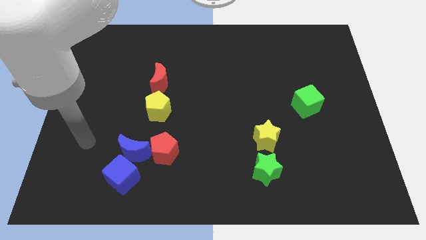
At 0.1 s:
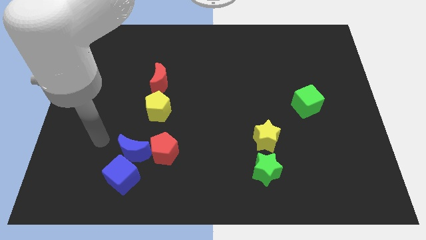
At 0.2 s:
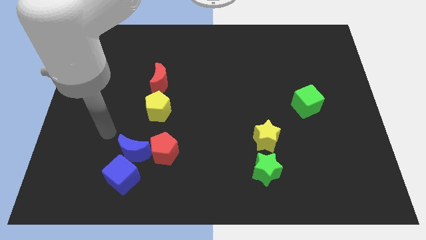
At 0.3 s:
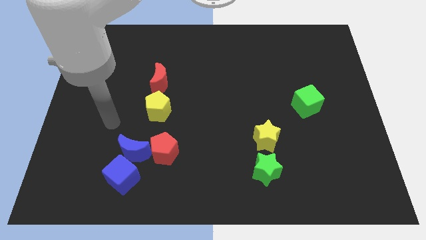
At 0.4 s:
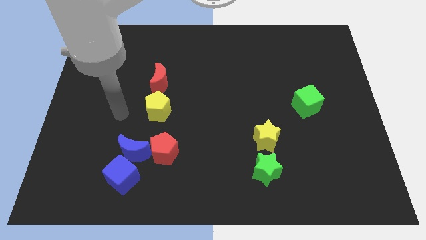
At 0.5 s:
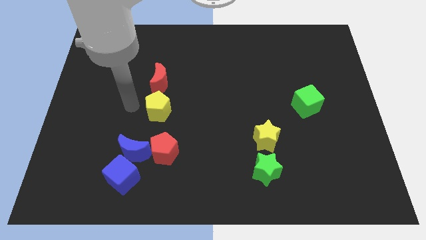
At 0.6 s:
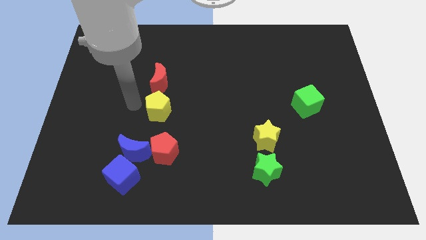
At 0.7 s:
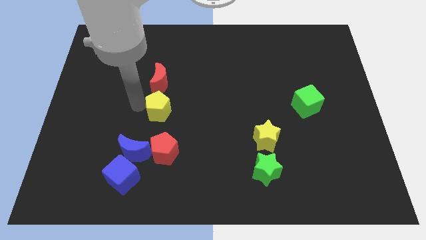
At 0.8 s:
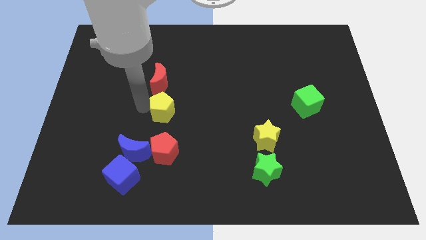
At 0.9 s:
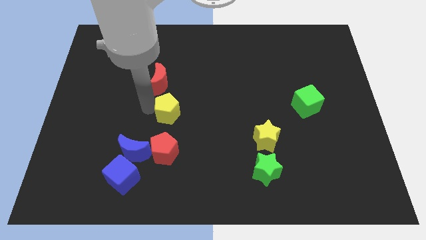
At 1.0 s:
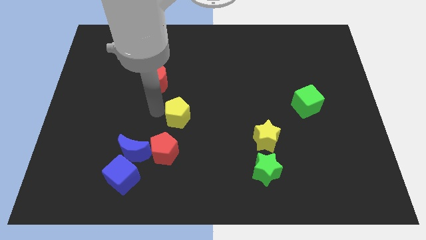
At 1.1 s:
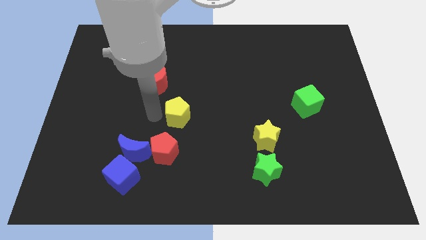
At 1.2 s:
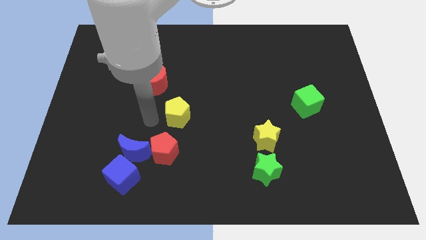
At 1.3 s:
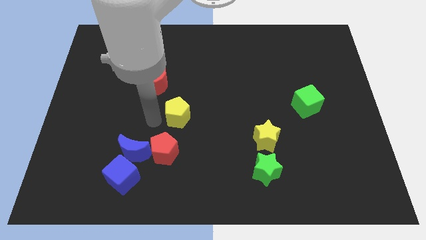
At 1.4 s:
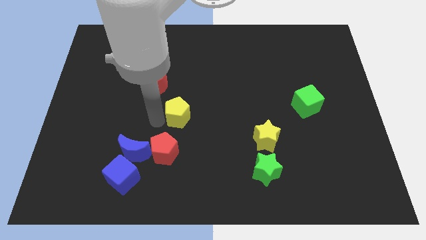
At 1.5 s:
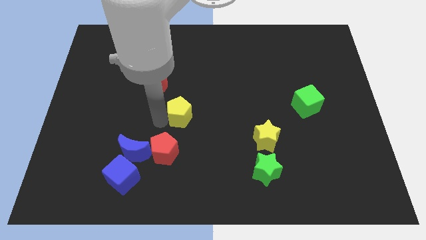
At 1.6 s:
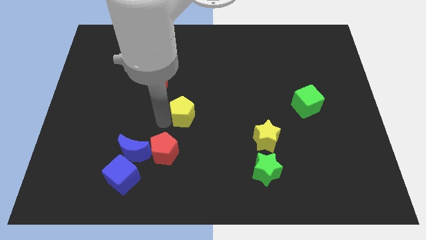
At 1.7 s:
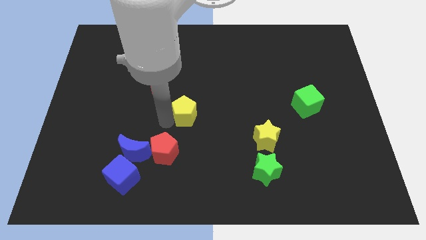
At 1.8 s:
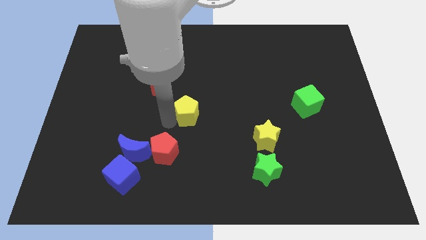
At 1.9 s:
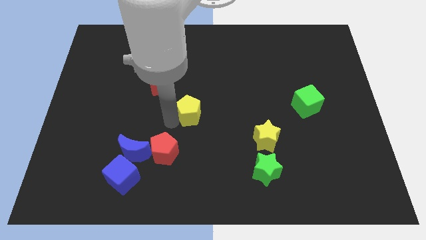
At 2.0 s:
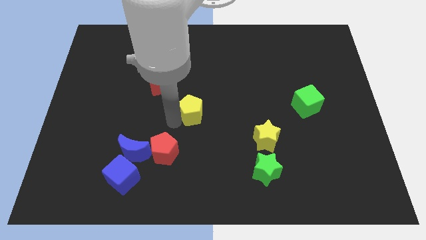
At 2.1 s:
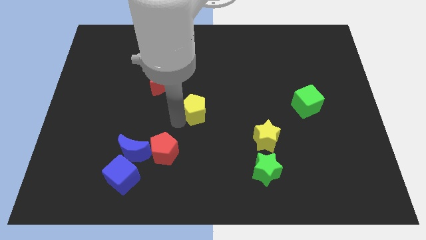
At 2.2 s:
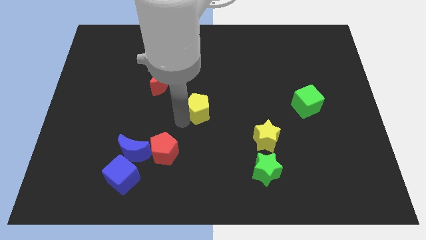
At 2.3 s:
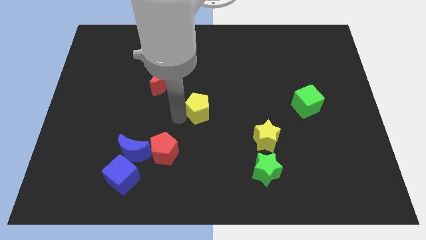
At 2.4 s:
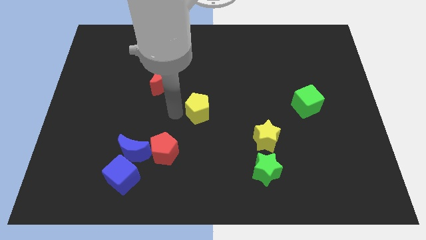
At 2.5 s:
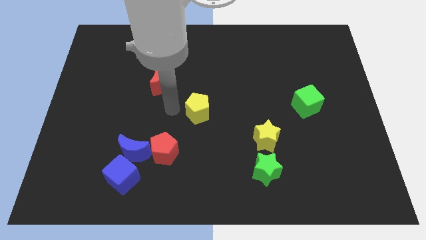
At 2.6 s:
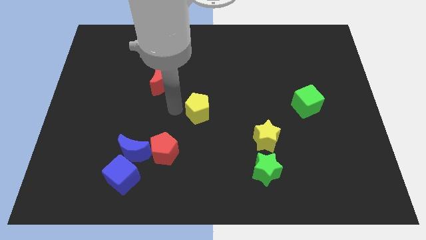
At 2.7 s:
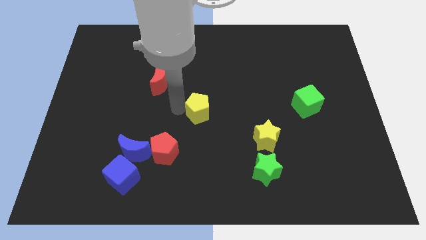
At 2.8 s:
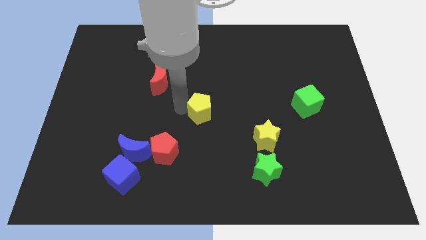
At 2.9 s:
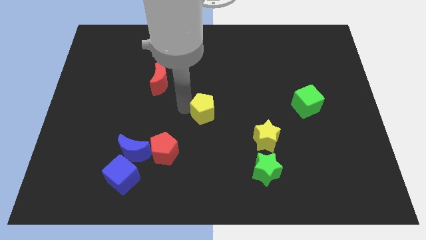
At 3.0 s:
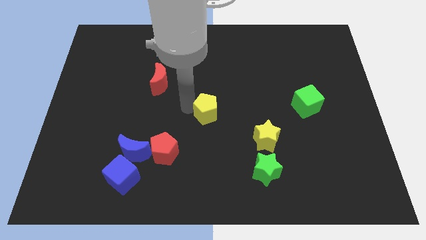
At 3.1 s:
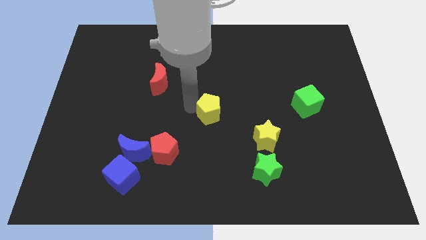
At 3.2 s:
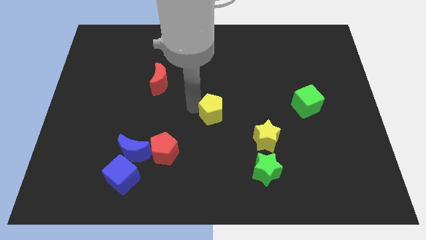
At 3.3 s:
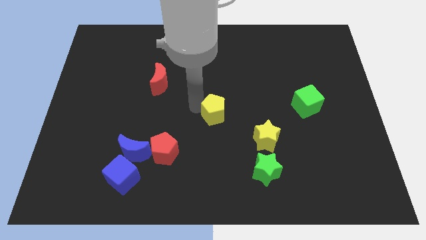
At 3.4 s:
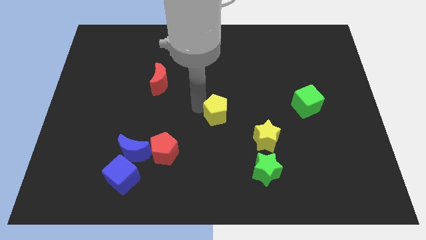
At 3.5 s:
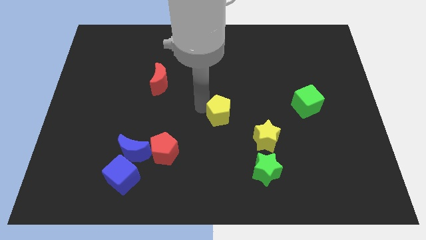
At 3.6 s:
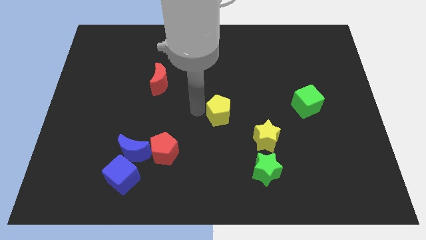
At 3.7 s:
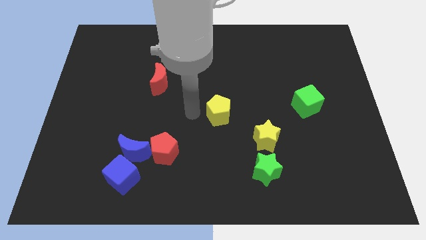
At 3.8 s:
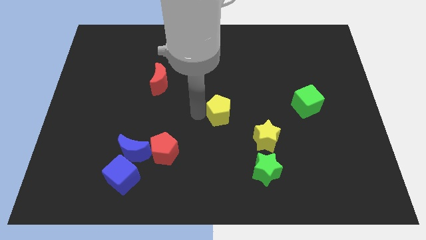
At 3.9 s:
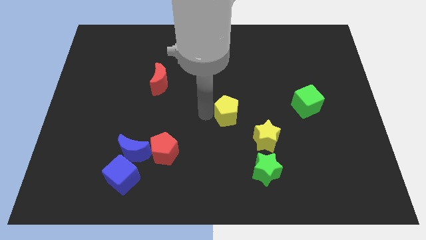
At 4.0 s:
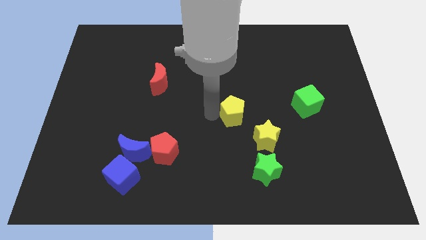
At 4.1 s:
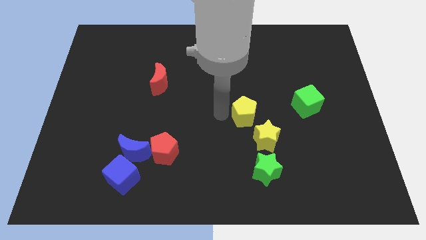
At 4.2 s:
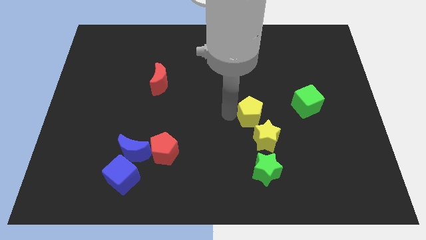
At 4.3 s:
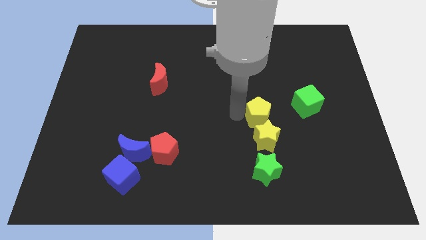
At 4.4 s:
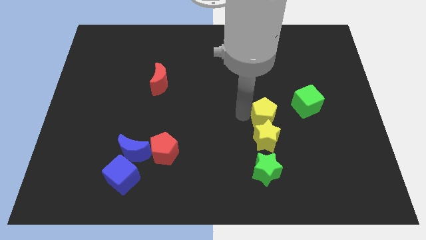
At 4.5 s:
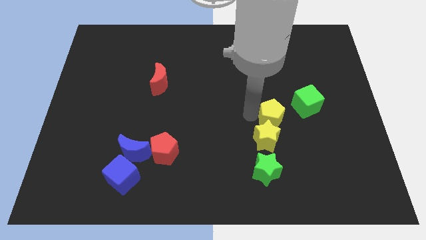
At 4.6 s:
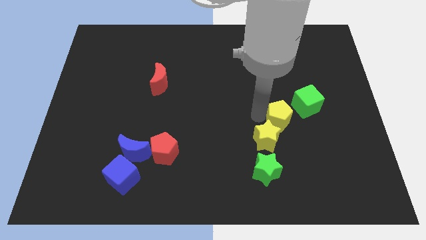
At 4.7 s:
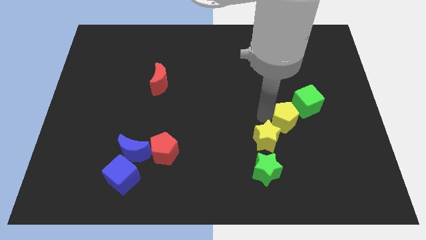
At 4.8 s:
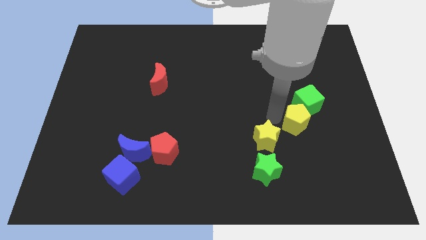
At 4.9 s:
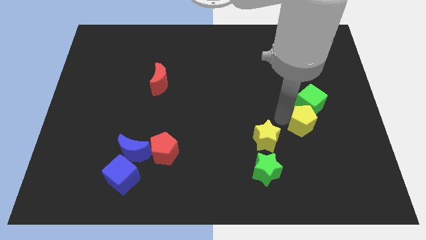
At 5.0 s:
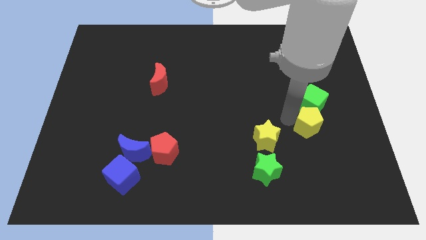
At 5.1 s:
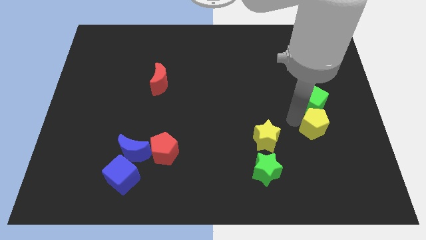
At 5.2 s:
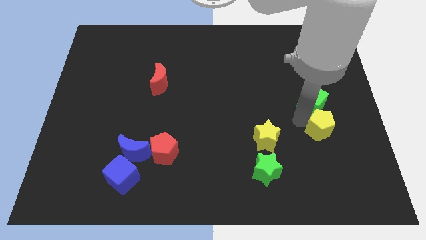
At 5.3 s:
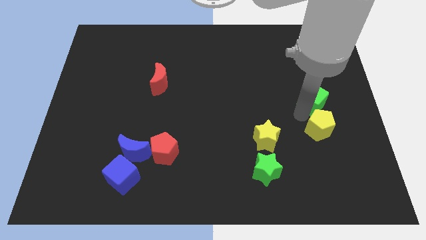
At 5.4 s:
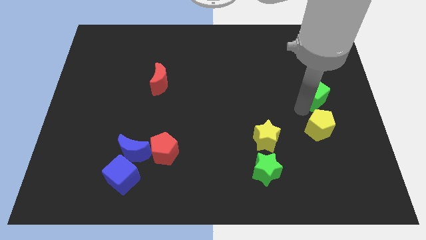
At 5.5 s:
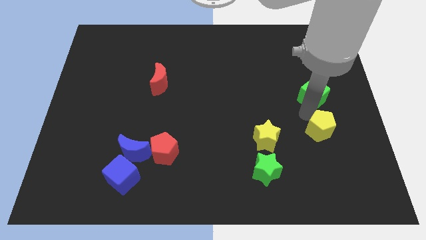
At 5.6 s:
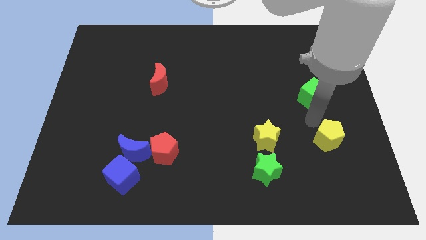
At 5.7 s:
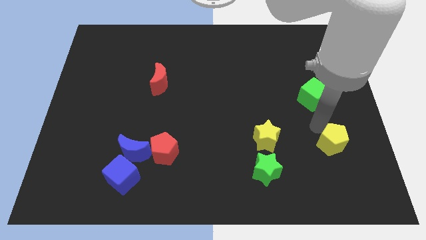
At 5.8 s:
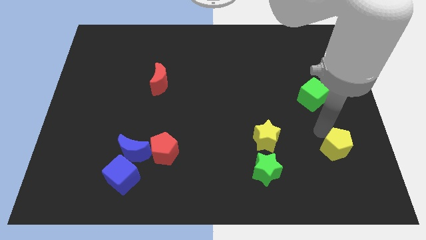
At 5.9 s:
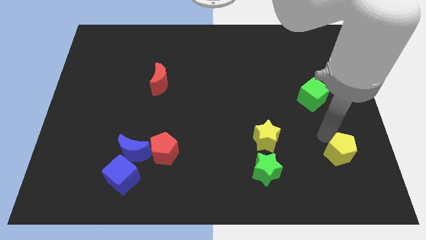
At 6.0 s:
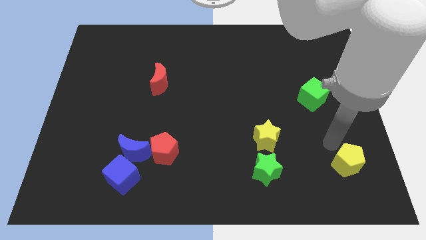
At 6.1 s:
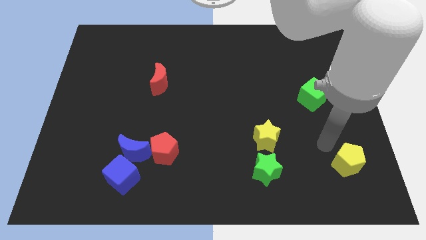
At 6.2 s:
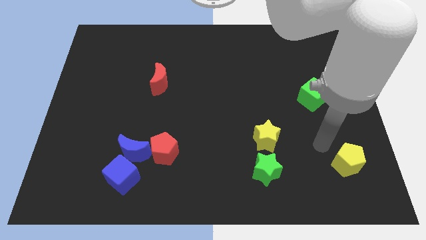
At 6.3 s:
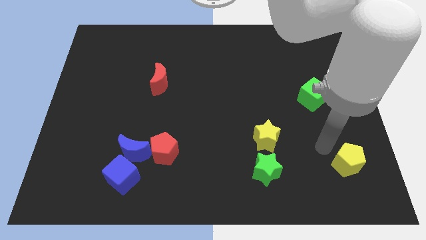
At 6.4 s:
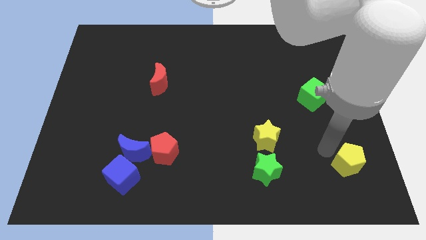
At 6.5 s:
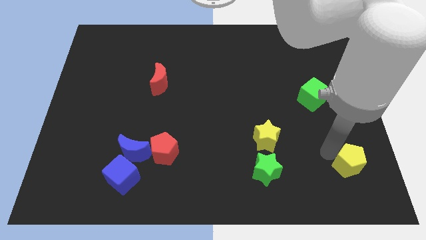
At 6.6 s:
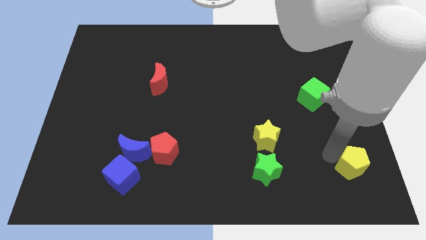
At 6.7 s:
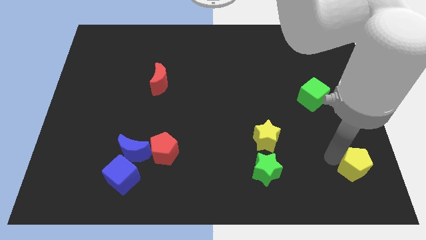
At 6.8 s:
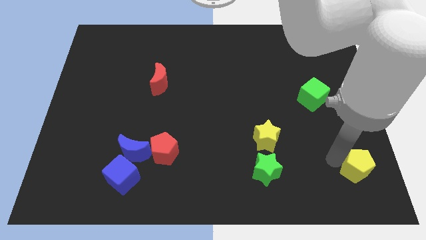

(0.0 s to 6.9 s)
put the yellow pentagon to the bottom right corner
